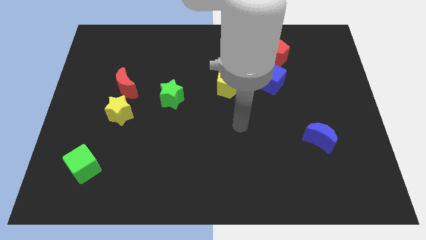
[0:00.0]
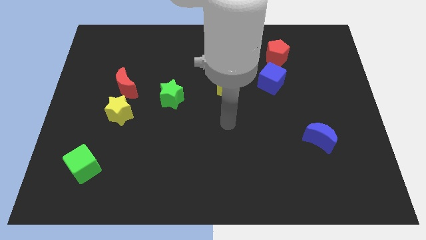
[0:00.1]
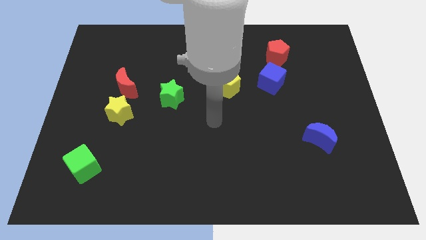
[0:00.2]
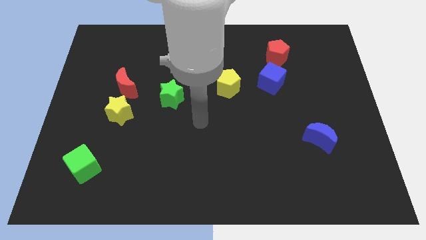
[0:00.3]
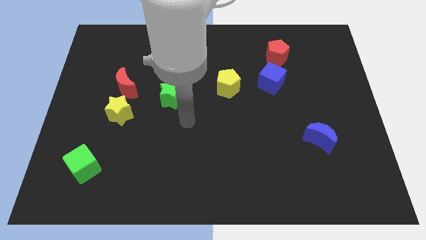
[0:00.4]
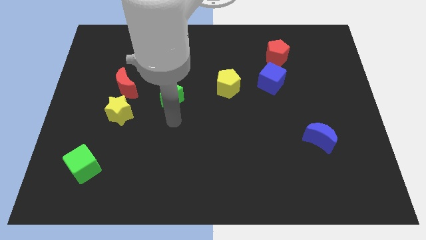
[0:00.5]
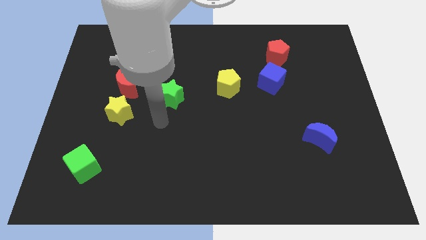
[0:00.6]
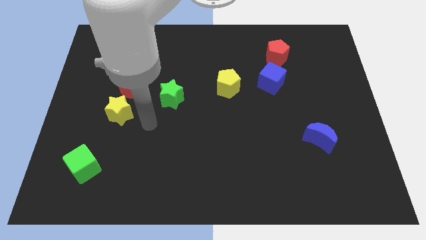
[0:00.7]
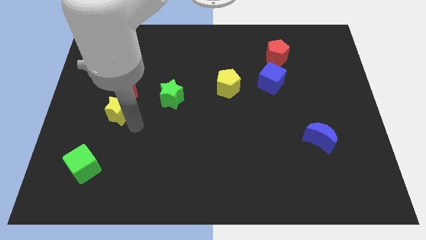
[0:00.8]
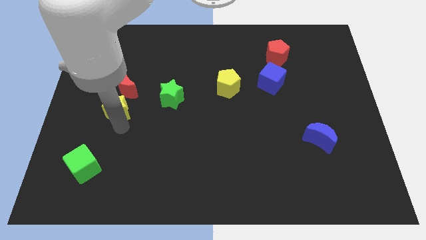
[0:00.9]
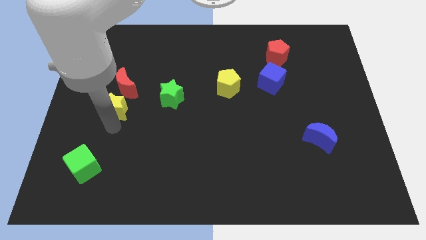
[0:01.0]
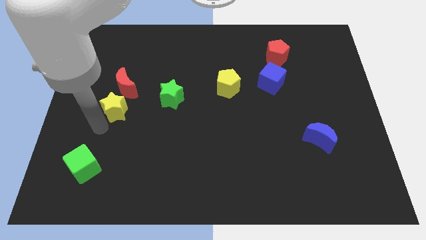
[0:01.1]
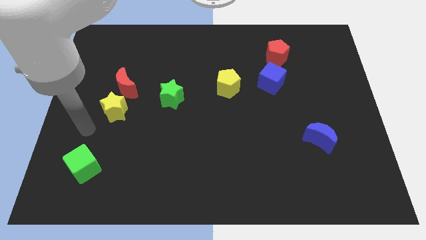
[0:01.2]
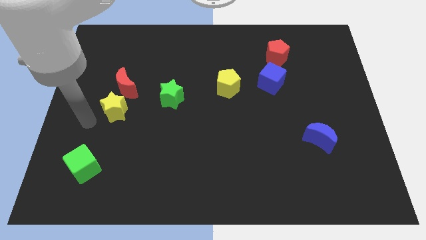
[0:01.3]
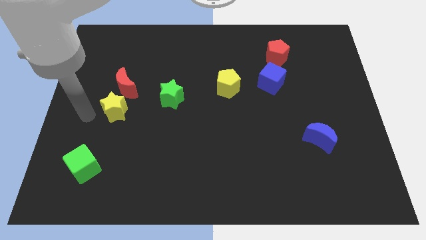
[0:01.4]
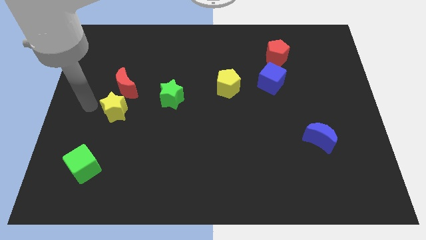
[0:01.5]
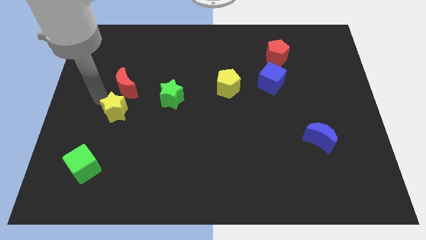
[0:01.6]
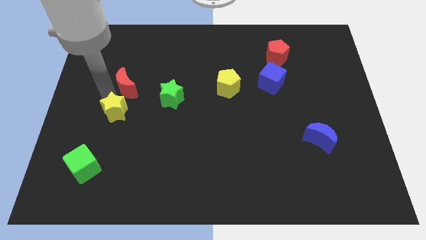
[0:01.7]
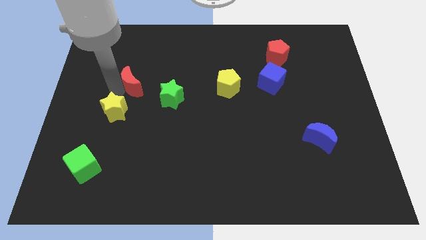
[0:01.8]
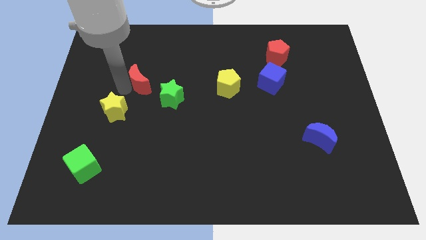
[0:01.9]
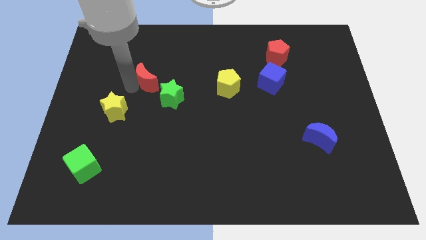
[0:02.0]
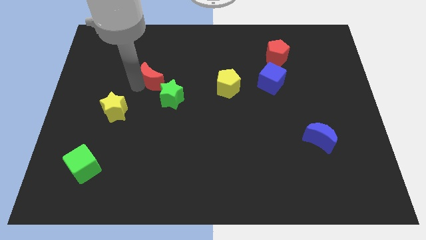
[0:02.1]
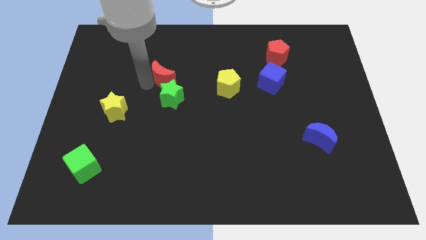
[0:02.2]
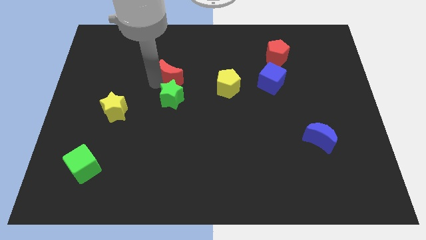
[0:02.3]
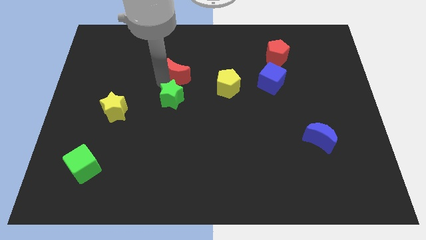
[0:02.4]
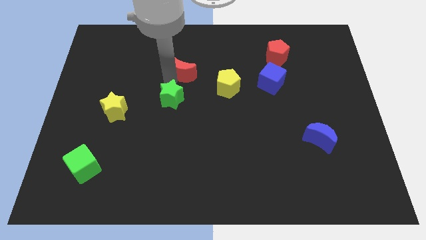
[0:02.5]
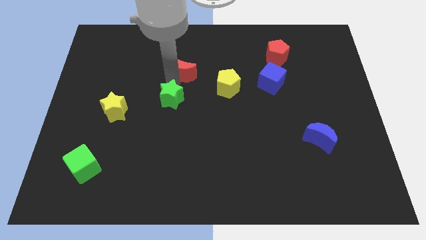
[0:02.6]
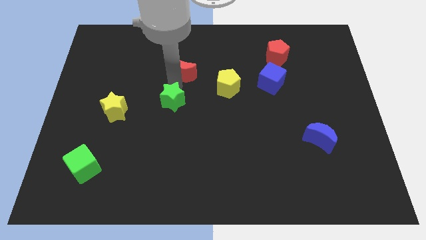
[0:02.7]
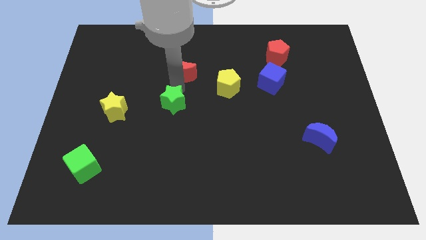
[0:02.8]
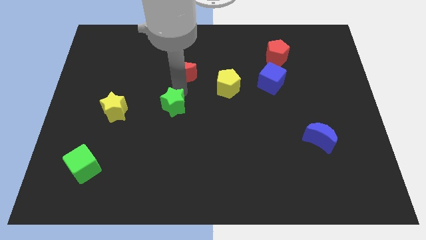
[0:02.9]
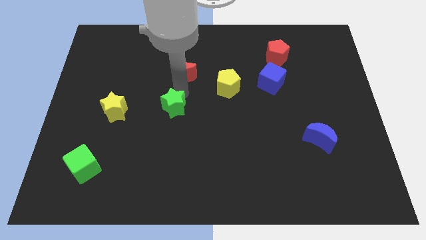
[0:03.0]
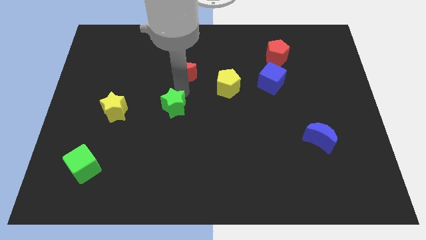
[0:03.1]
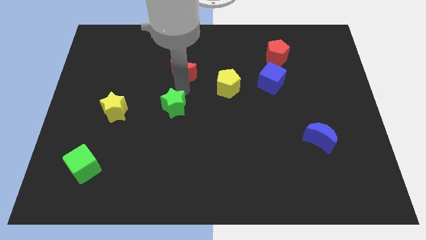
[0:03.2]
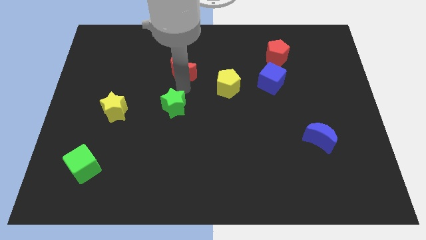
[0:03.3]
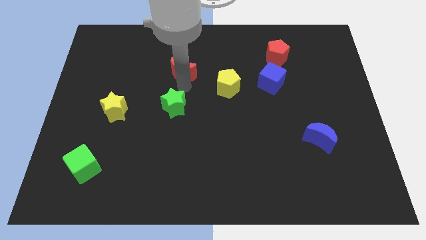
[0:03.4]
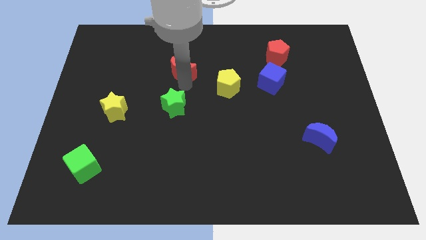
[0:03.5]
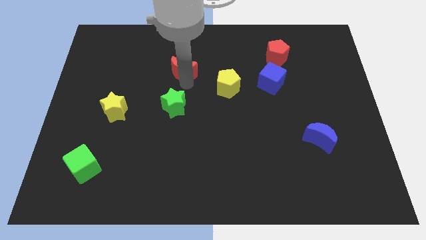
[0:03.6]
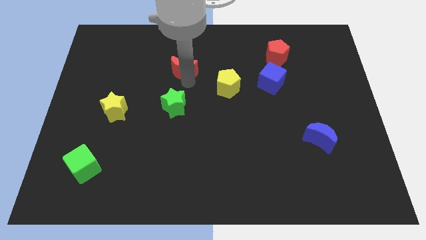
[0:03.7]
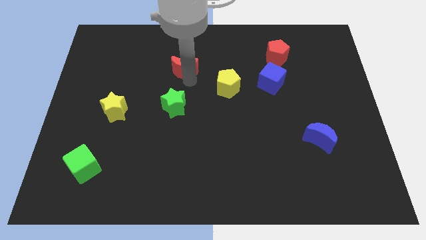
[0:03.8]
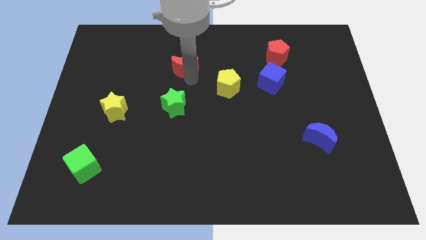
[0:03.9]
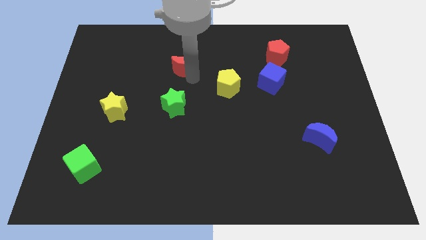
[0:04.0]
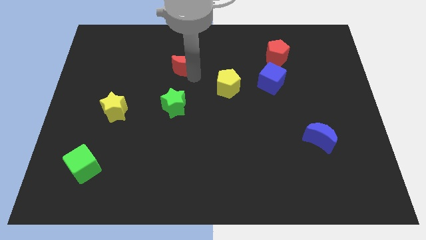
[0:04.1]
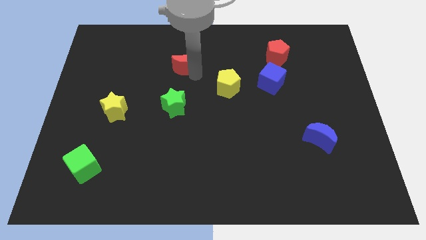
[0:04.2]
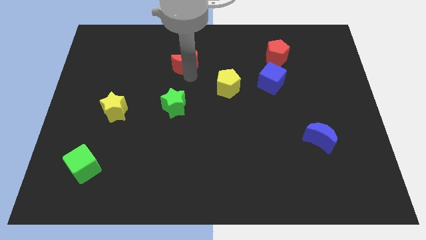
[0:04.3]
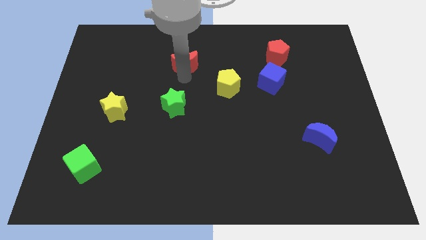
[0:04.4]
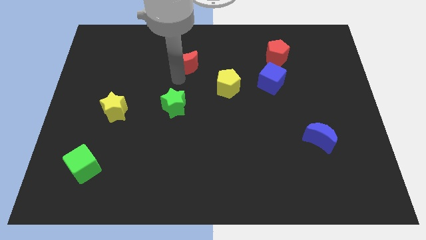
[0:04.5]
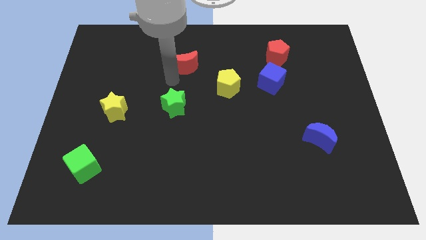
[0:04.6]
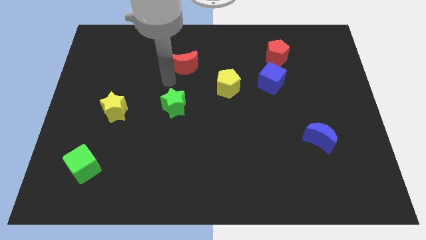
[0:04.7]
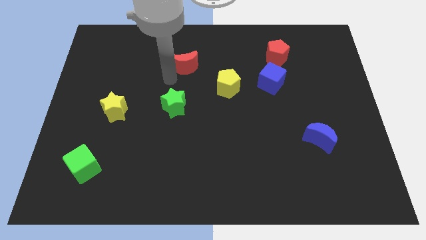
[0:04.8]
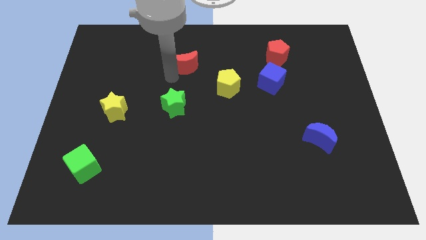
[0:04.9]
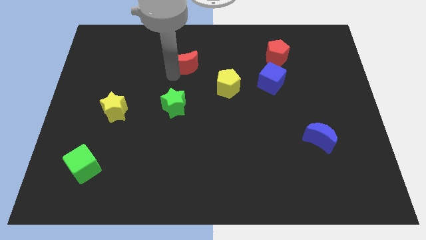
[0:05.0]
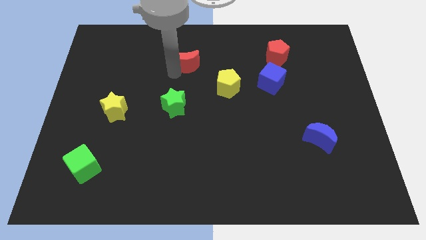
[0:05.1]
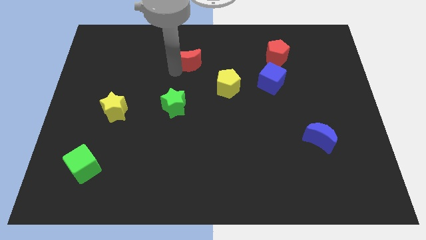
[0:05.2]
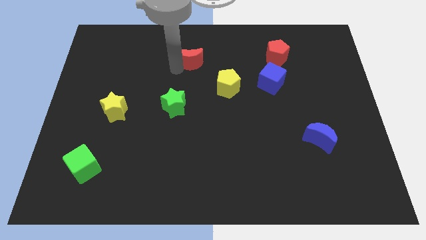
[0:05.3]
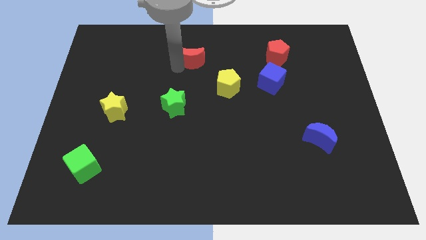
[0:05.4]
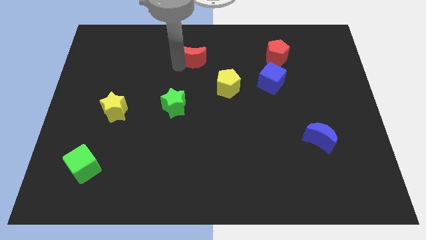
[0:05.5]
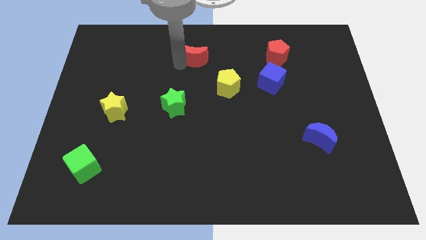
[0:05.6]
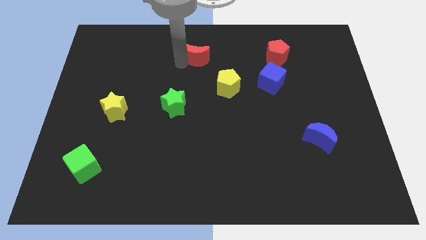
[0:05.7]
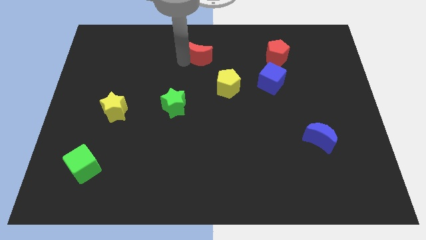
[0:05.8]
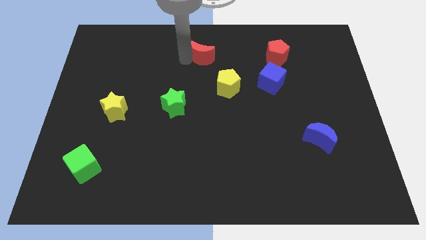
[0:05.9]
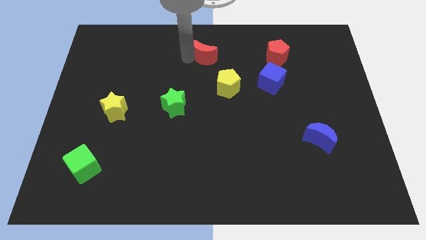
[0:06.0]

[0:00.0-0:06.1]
put the red moon to the top
